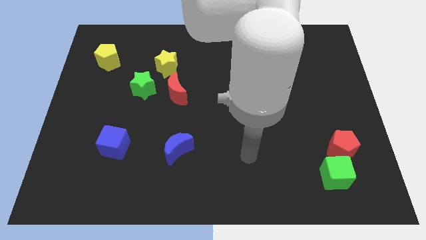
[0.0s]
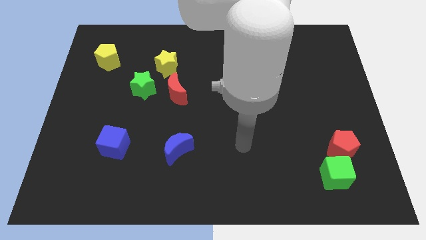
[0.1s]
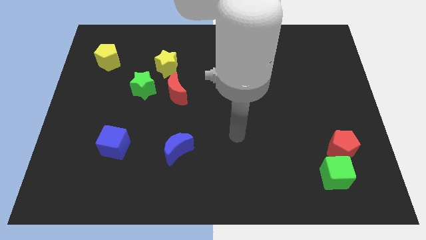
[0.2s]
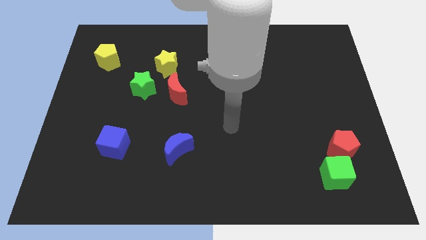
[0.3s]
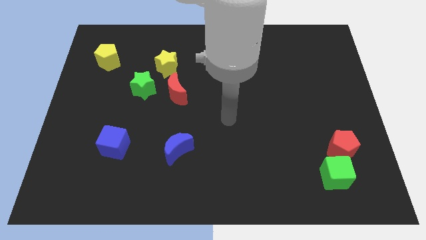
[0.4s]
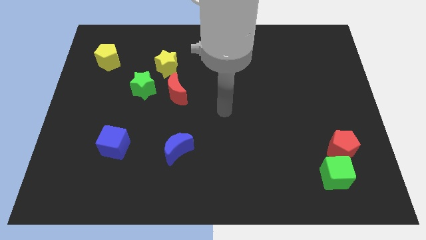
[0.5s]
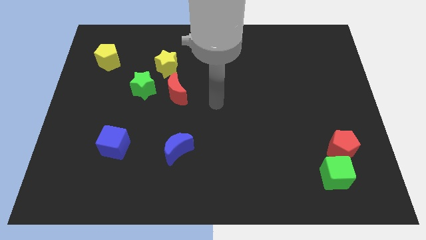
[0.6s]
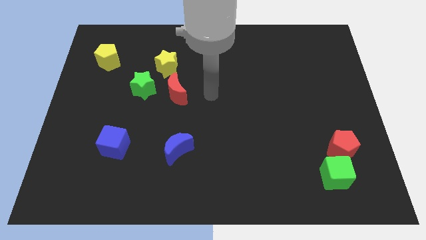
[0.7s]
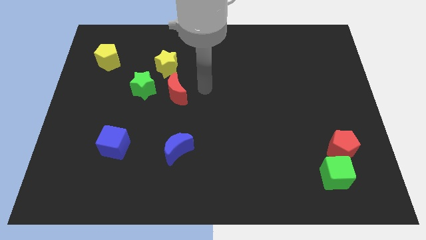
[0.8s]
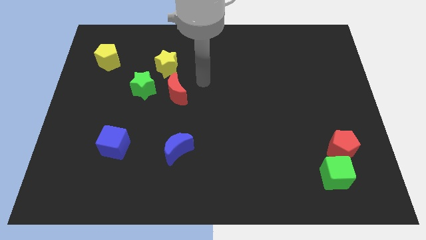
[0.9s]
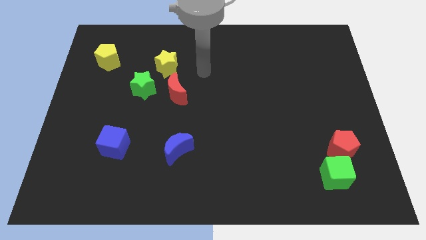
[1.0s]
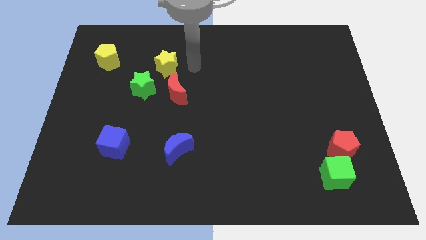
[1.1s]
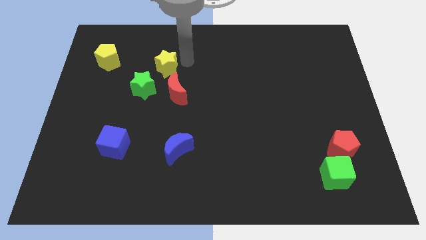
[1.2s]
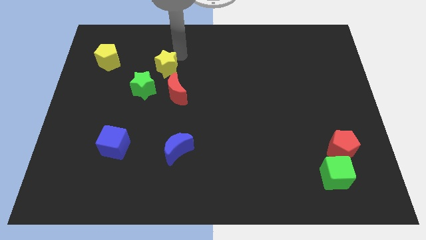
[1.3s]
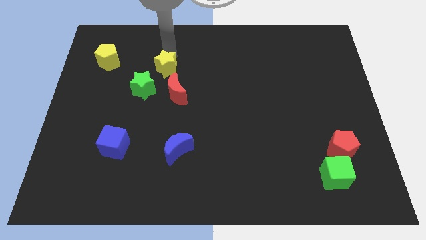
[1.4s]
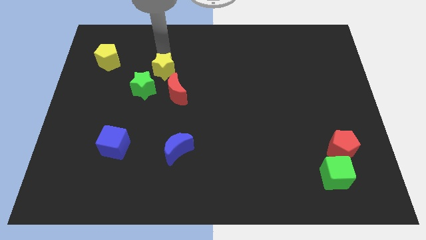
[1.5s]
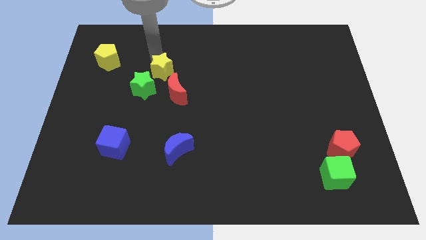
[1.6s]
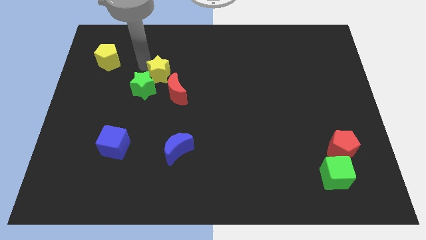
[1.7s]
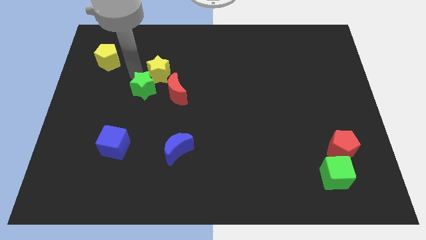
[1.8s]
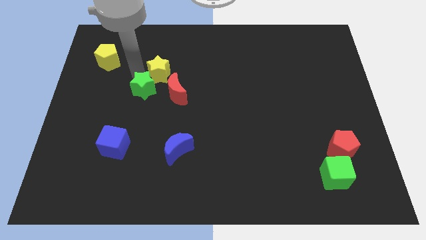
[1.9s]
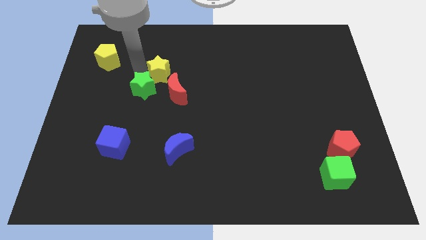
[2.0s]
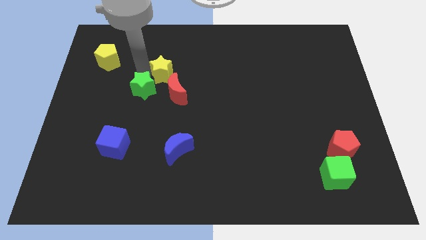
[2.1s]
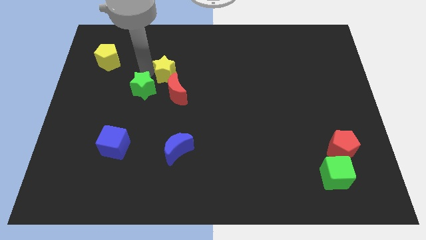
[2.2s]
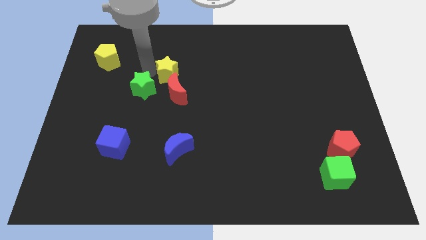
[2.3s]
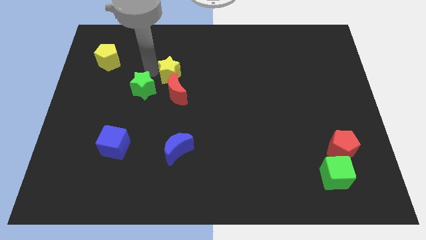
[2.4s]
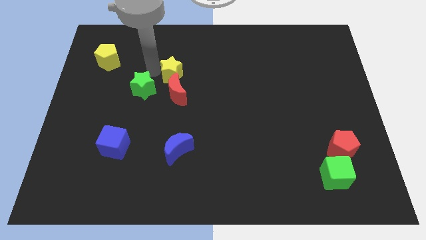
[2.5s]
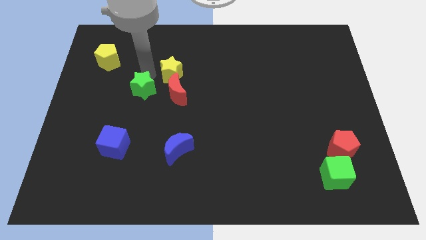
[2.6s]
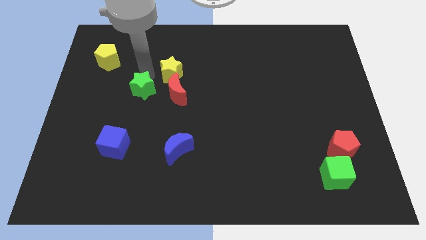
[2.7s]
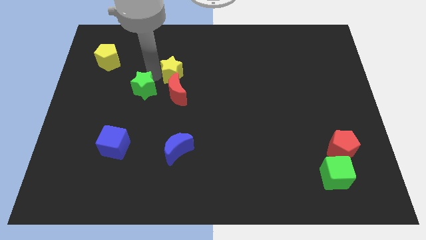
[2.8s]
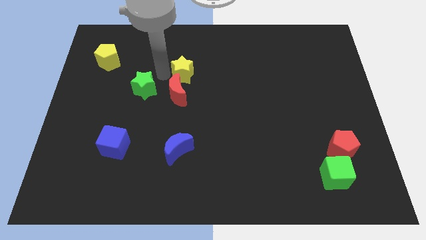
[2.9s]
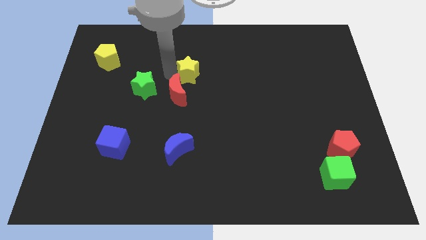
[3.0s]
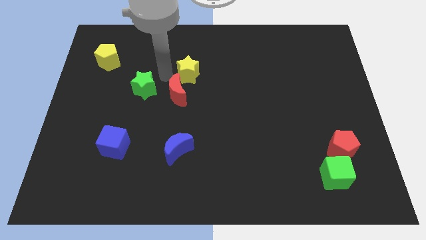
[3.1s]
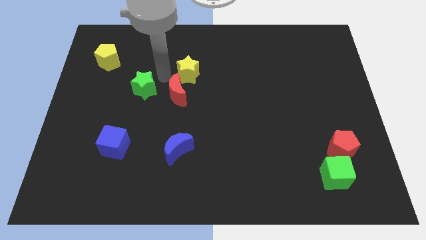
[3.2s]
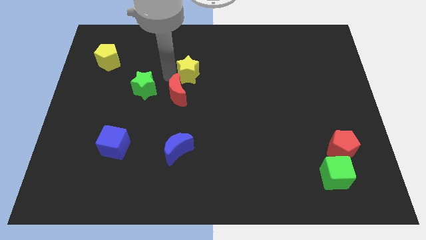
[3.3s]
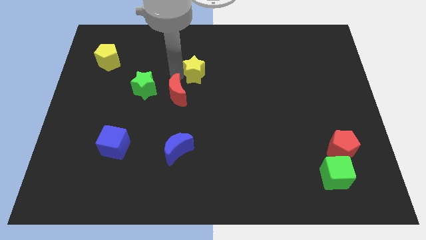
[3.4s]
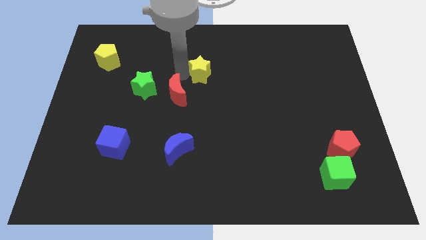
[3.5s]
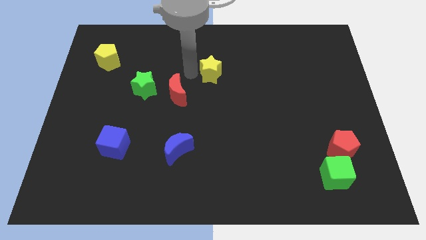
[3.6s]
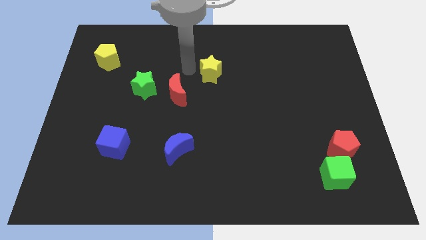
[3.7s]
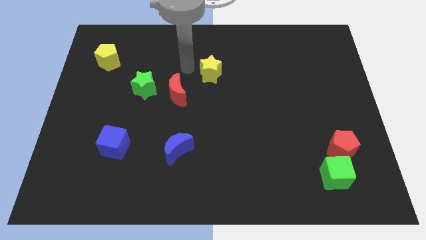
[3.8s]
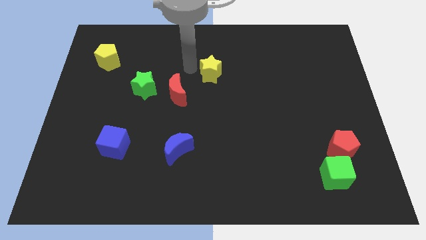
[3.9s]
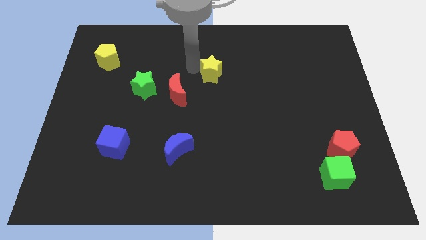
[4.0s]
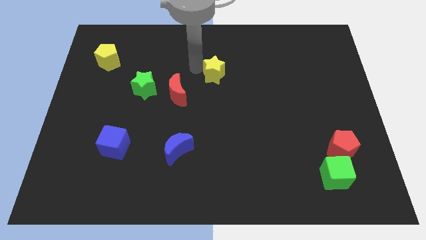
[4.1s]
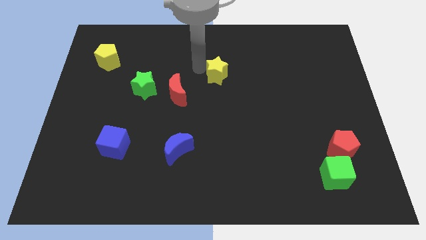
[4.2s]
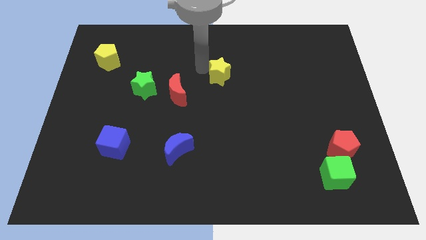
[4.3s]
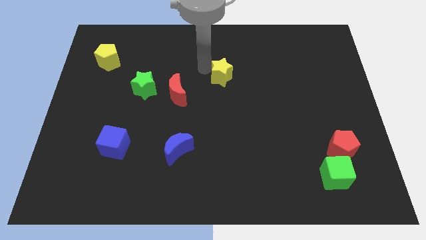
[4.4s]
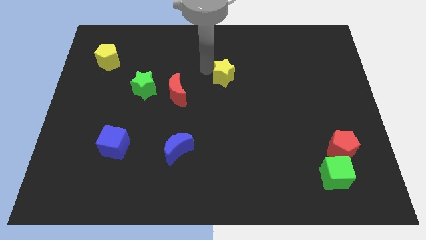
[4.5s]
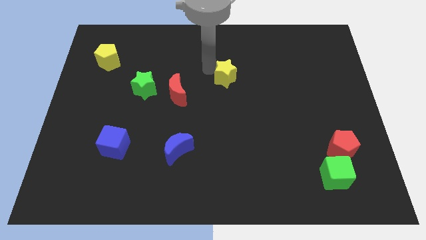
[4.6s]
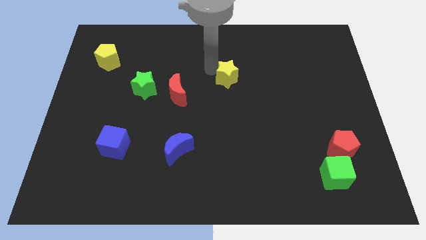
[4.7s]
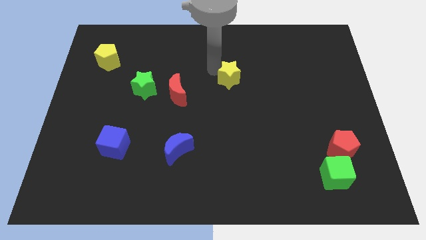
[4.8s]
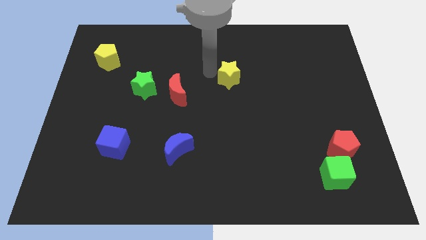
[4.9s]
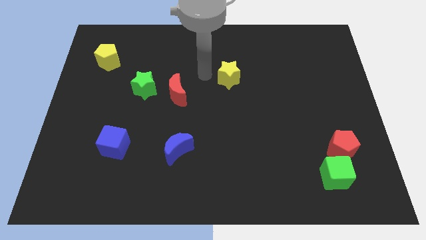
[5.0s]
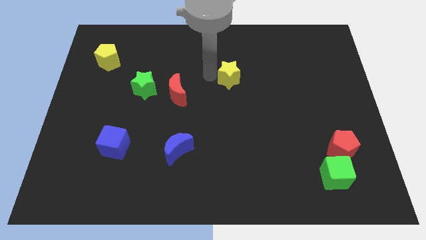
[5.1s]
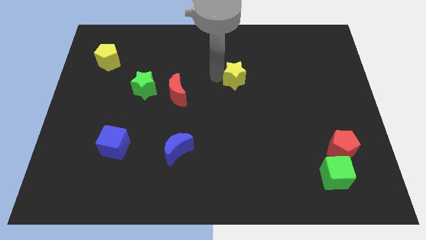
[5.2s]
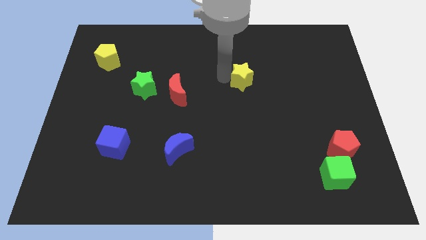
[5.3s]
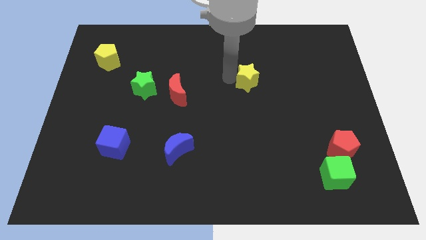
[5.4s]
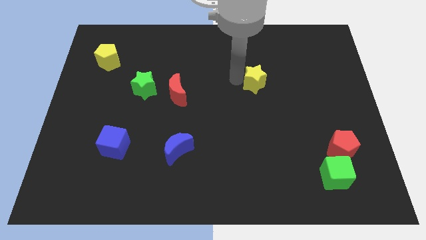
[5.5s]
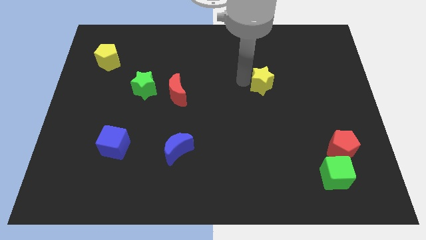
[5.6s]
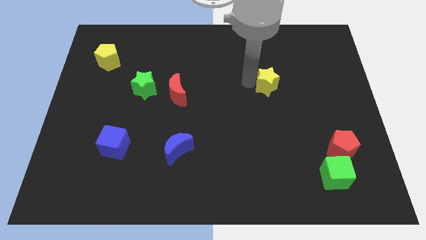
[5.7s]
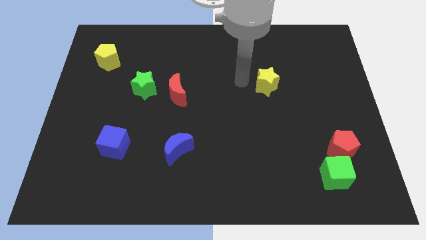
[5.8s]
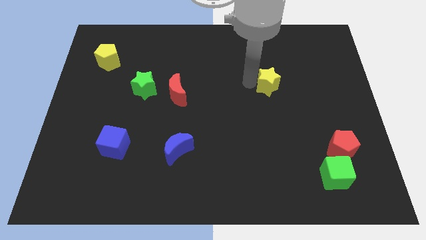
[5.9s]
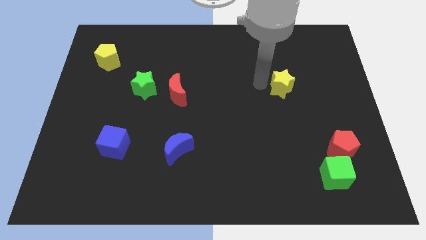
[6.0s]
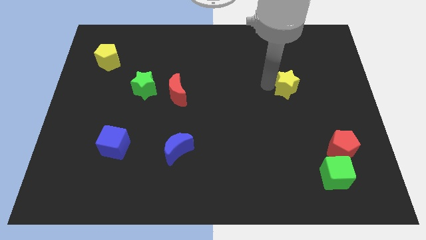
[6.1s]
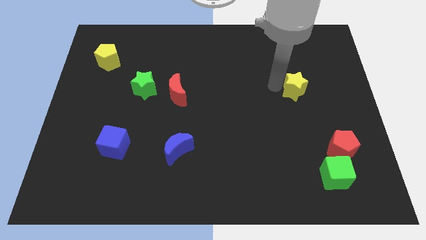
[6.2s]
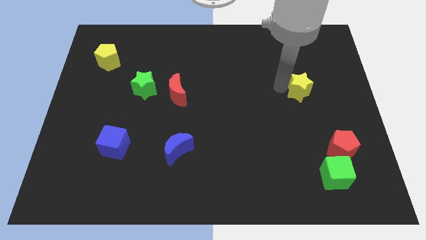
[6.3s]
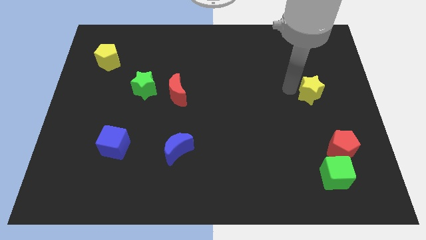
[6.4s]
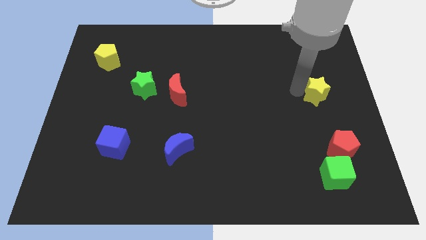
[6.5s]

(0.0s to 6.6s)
put the yellow star to the right side of the board
